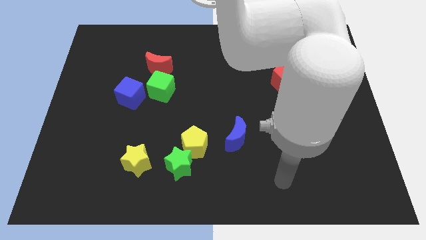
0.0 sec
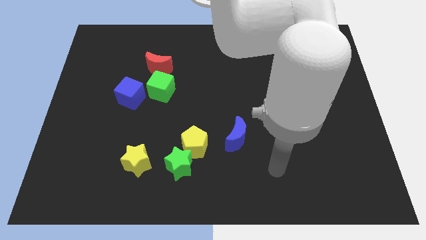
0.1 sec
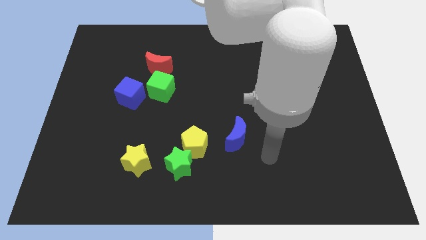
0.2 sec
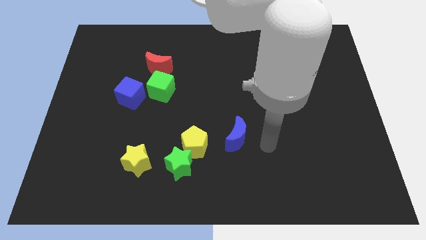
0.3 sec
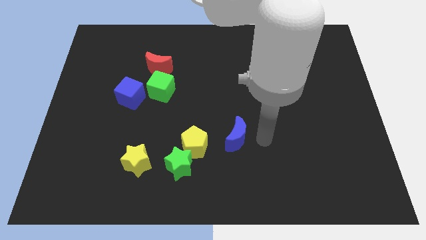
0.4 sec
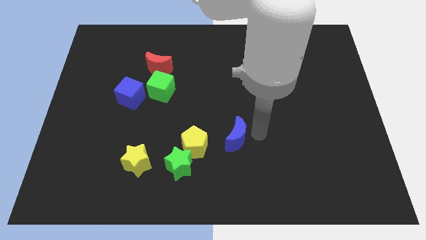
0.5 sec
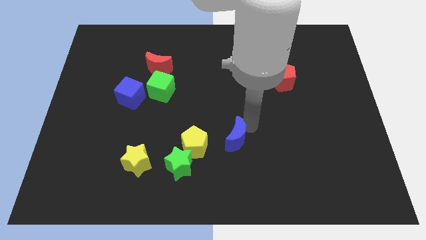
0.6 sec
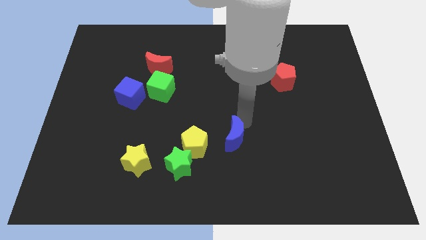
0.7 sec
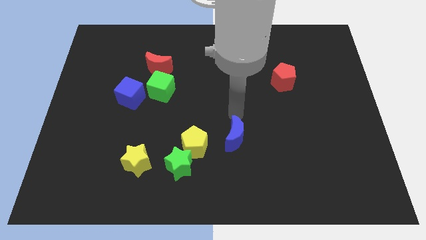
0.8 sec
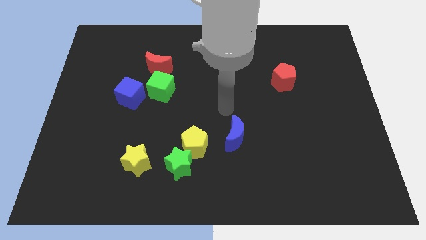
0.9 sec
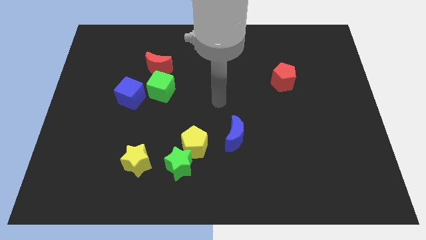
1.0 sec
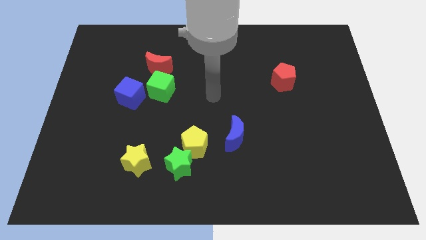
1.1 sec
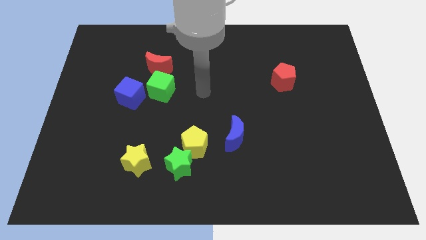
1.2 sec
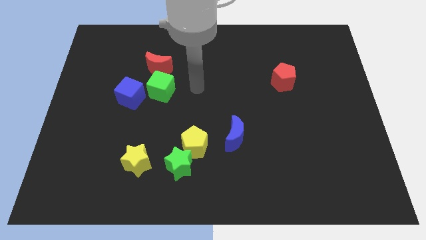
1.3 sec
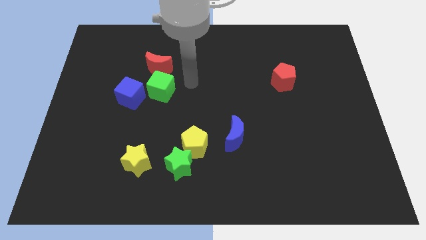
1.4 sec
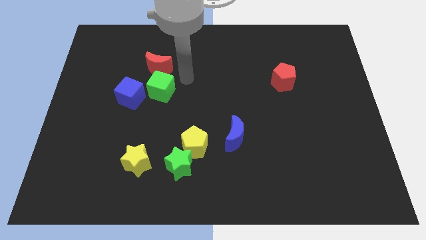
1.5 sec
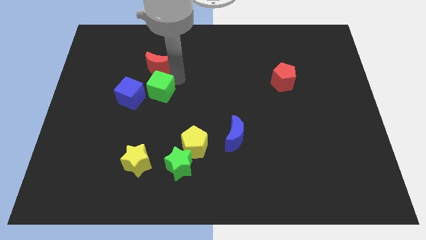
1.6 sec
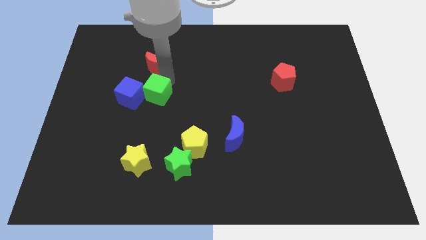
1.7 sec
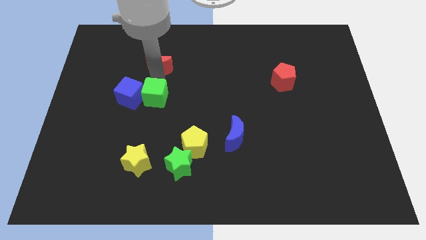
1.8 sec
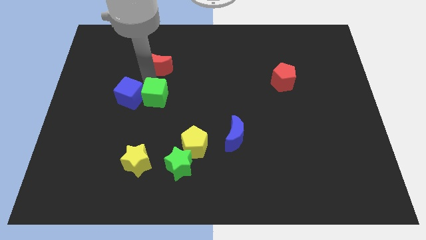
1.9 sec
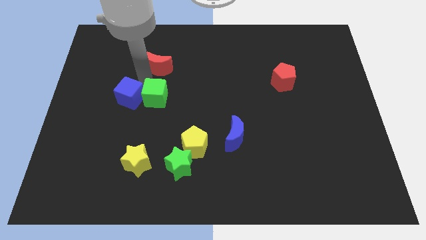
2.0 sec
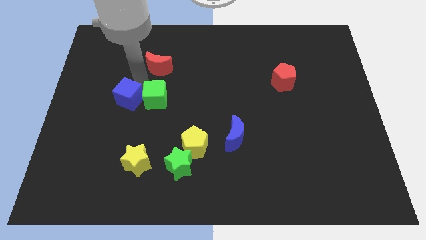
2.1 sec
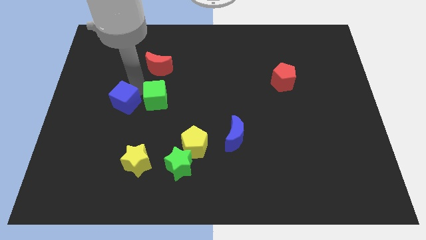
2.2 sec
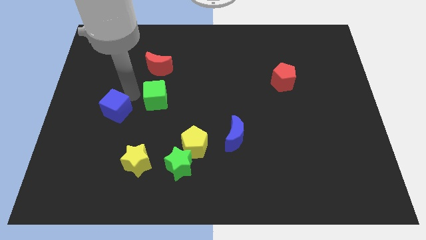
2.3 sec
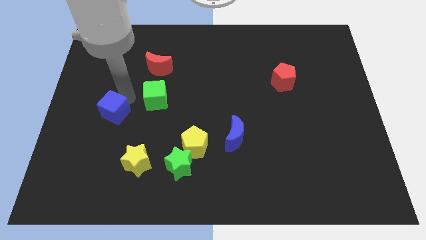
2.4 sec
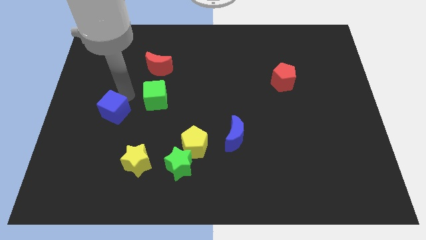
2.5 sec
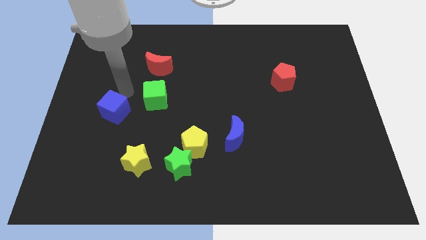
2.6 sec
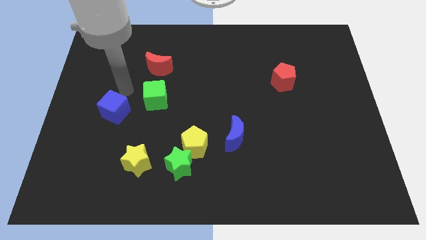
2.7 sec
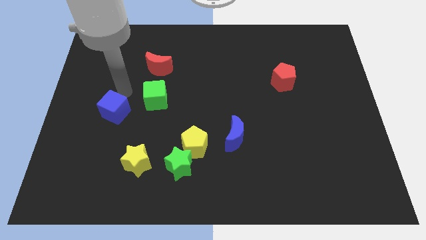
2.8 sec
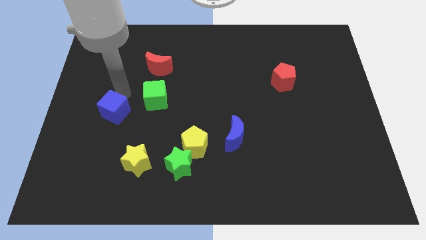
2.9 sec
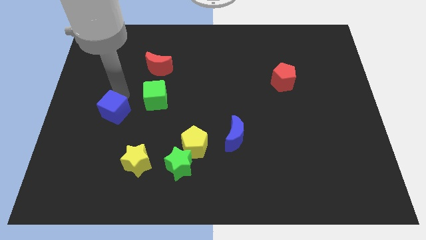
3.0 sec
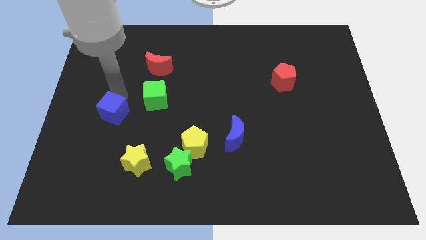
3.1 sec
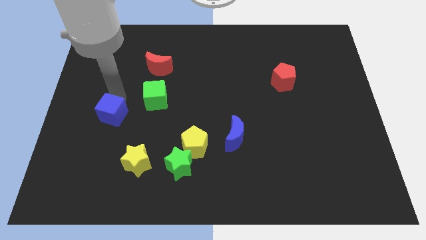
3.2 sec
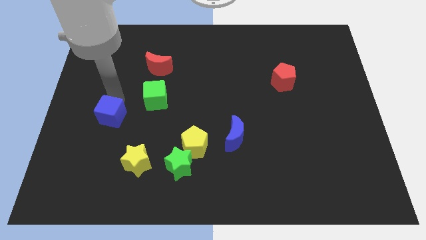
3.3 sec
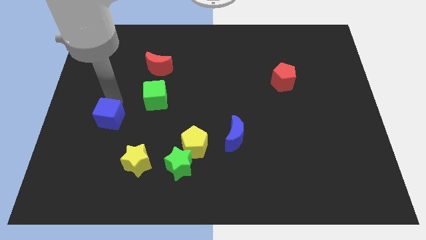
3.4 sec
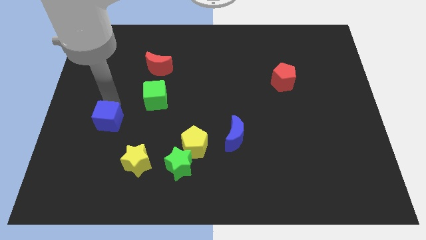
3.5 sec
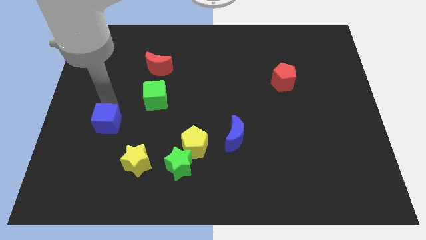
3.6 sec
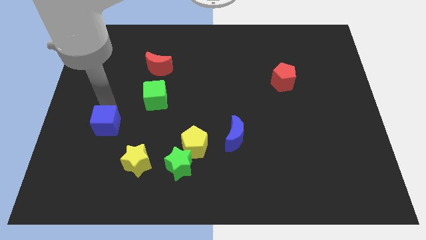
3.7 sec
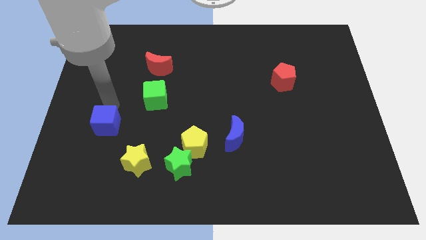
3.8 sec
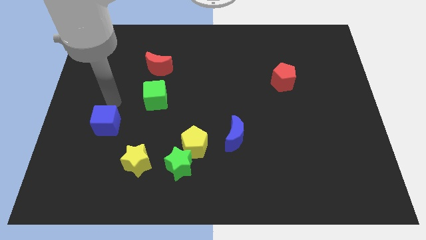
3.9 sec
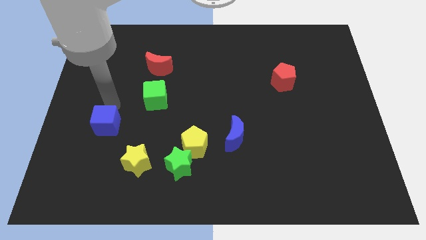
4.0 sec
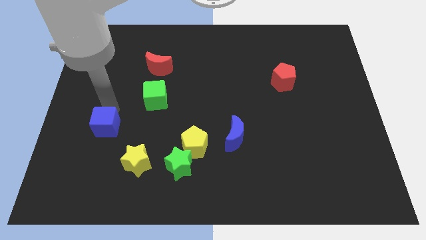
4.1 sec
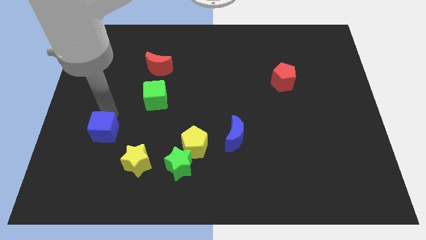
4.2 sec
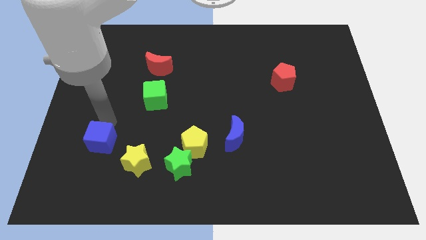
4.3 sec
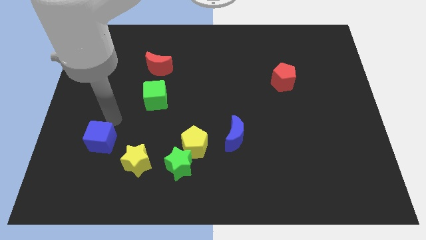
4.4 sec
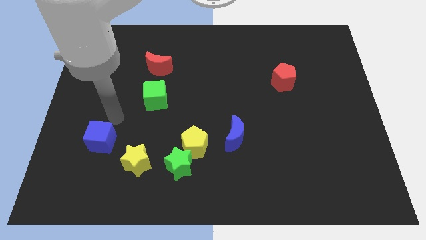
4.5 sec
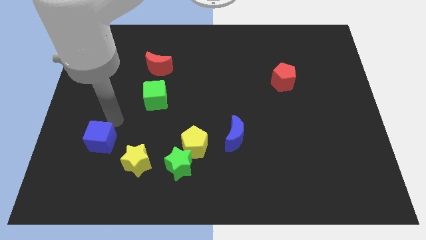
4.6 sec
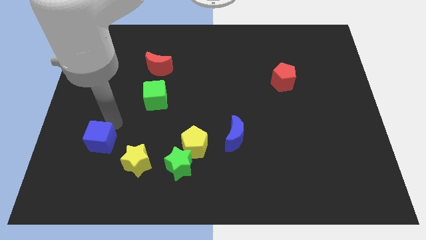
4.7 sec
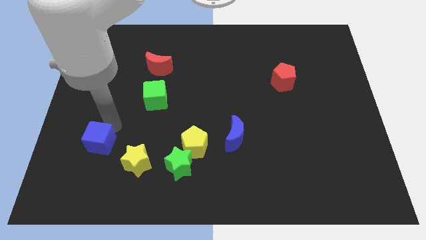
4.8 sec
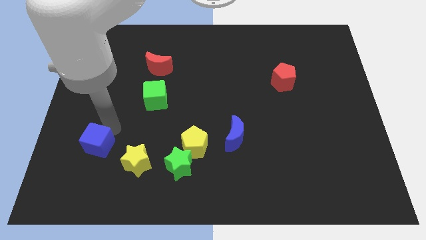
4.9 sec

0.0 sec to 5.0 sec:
slide the blue cube left of the yellow star

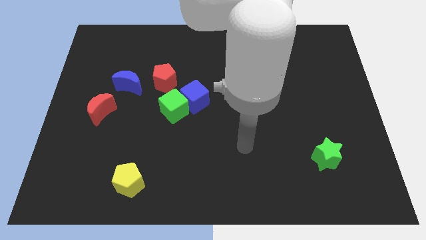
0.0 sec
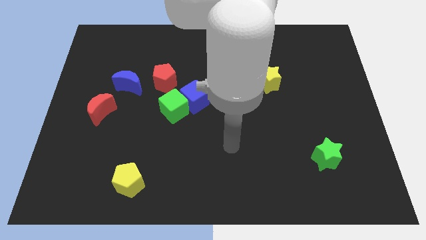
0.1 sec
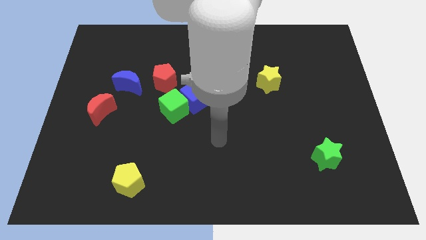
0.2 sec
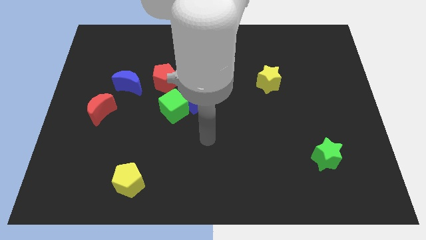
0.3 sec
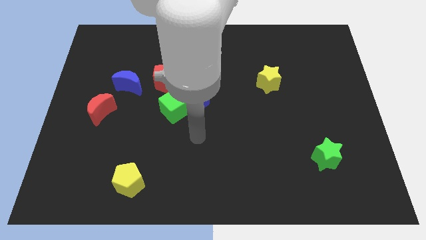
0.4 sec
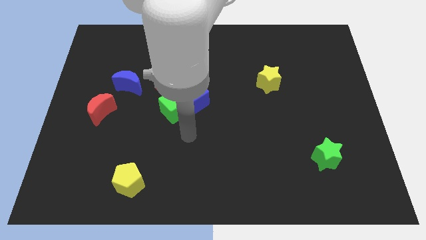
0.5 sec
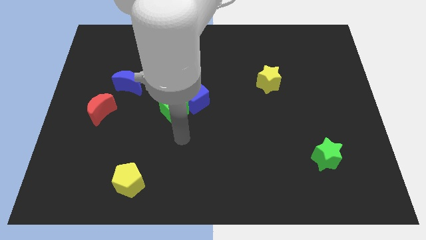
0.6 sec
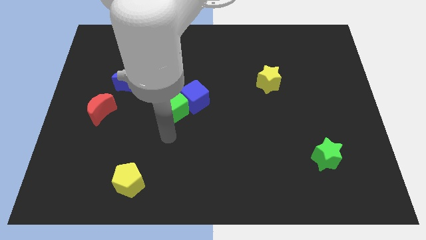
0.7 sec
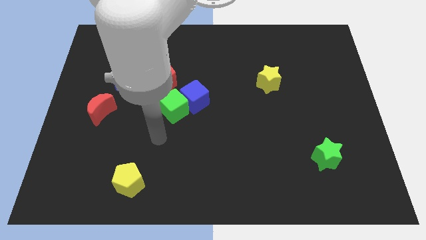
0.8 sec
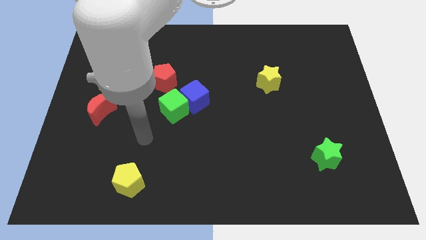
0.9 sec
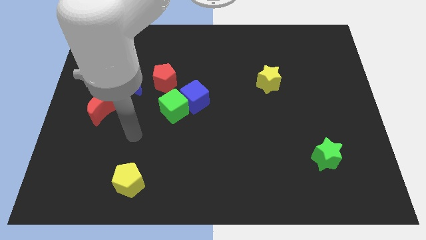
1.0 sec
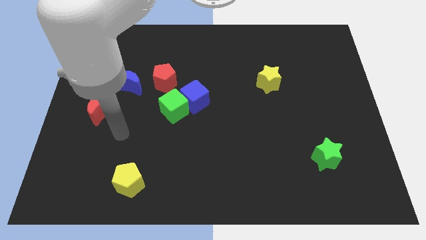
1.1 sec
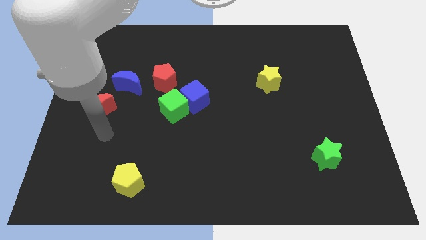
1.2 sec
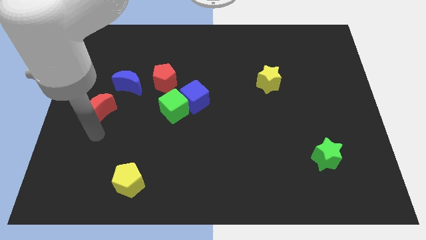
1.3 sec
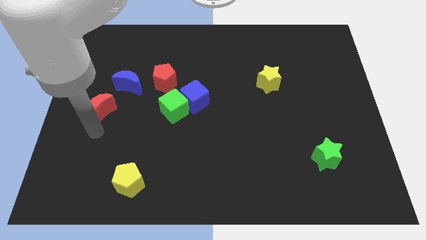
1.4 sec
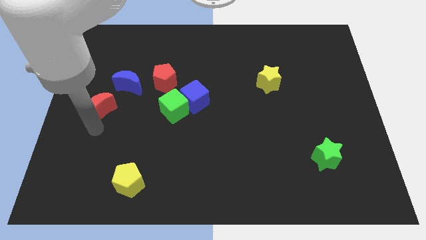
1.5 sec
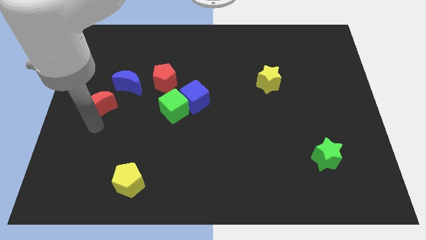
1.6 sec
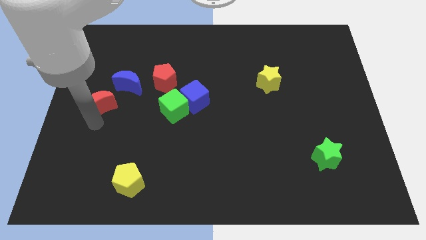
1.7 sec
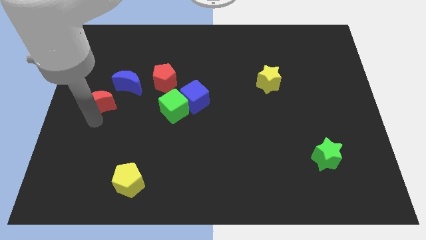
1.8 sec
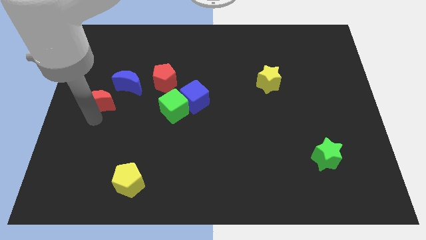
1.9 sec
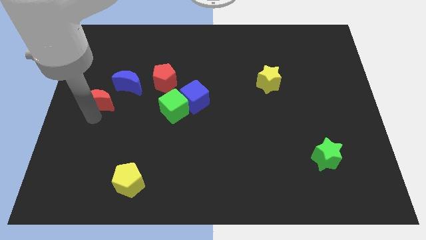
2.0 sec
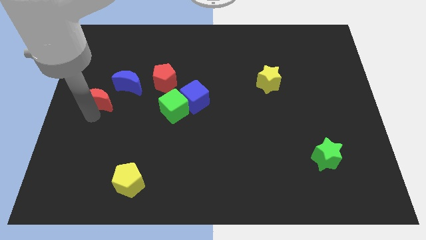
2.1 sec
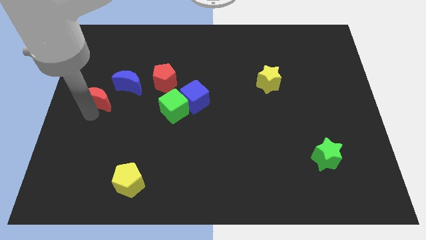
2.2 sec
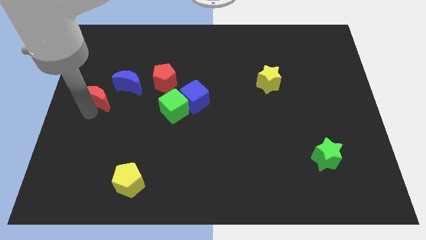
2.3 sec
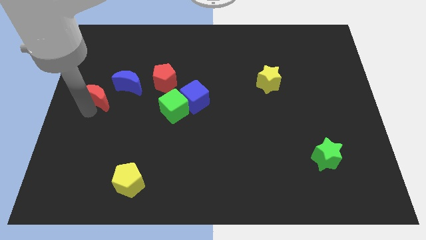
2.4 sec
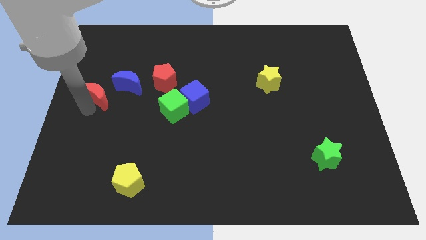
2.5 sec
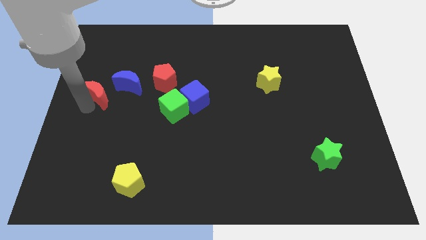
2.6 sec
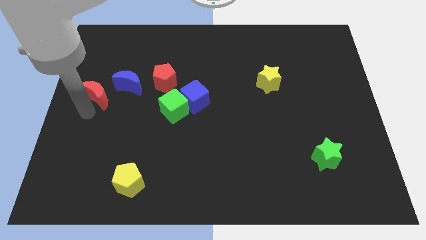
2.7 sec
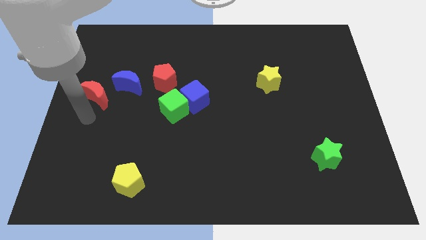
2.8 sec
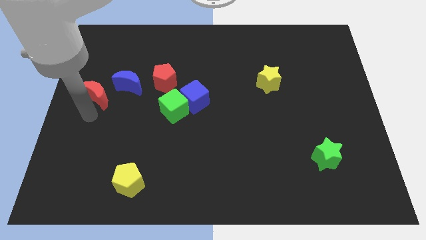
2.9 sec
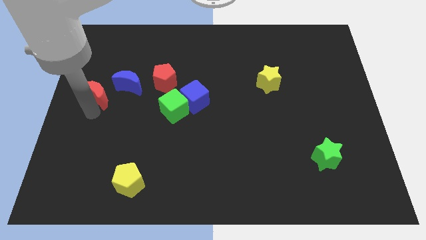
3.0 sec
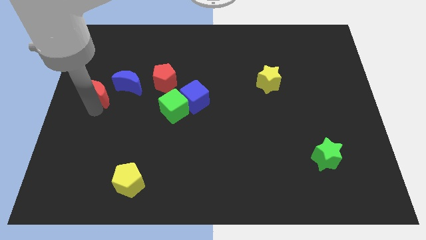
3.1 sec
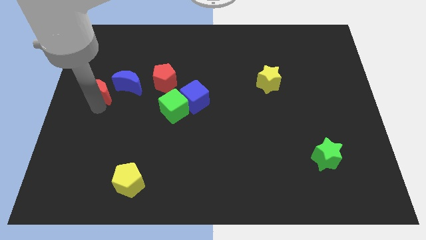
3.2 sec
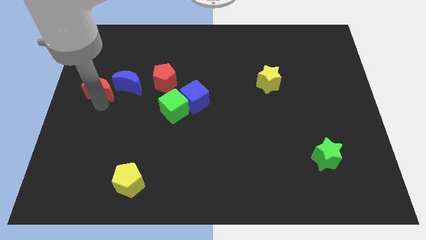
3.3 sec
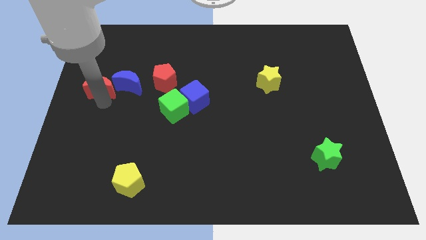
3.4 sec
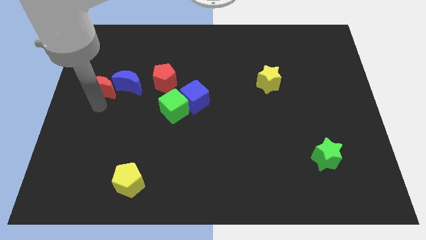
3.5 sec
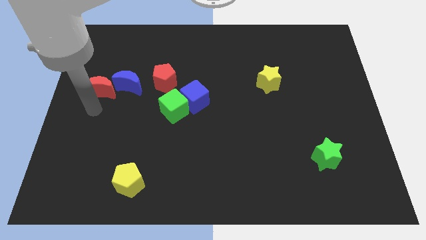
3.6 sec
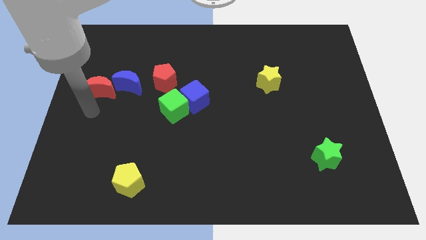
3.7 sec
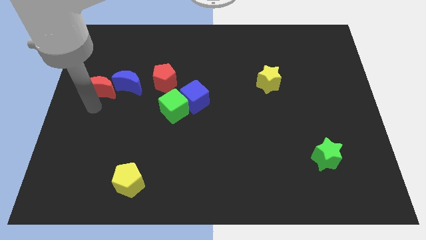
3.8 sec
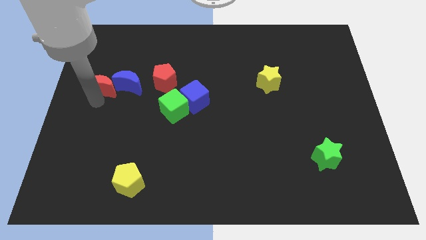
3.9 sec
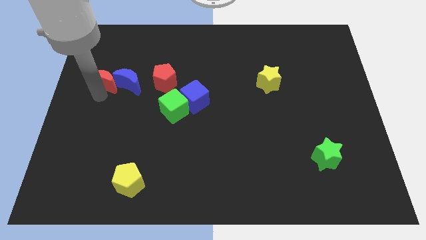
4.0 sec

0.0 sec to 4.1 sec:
push the red moon to the top left side of the blue moon
